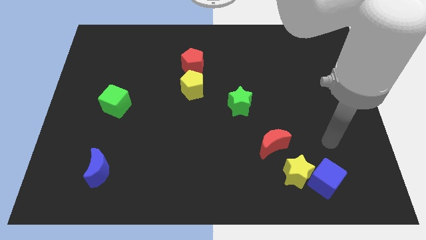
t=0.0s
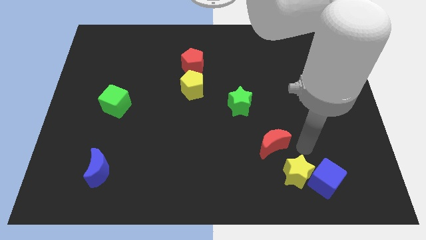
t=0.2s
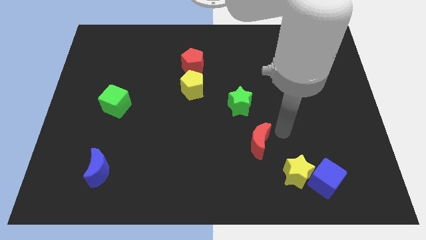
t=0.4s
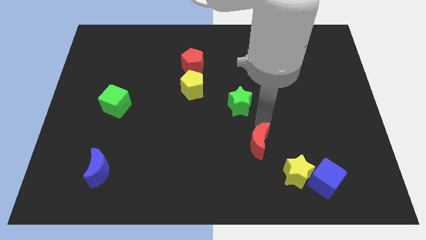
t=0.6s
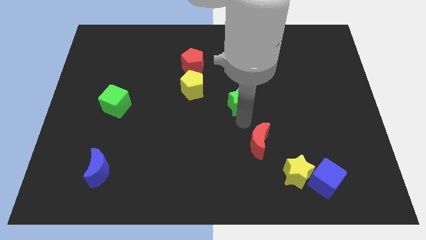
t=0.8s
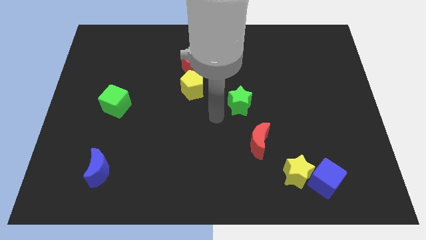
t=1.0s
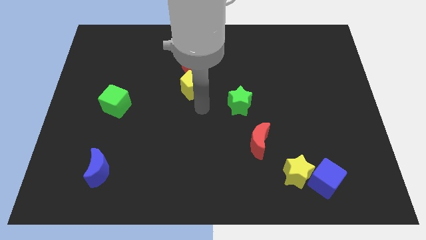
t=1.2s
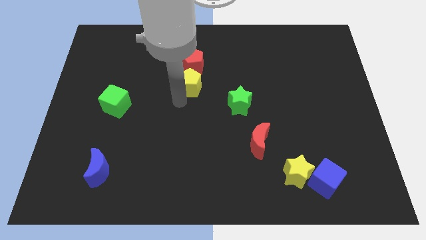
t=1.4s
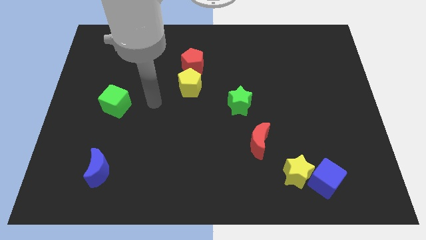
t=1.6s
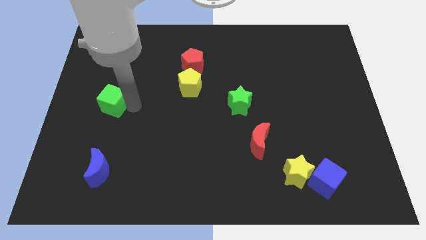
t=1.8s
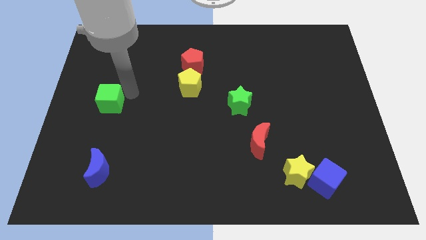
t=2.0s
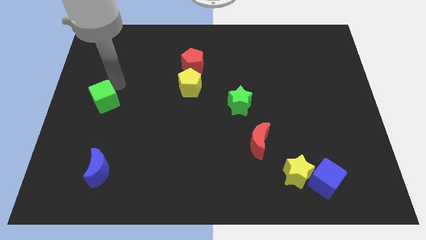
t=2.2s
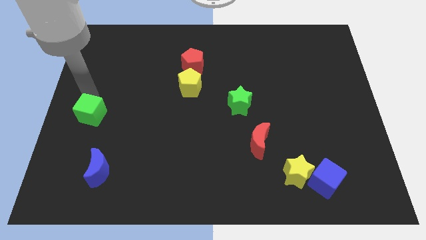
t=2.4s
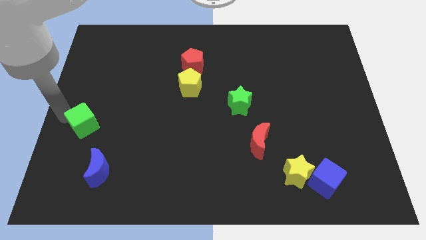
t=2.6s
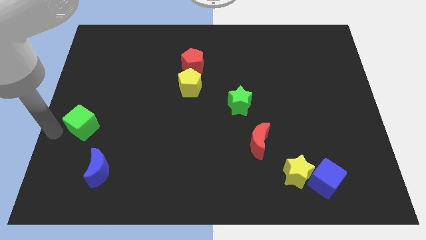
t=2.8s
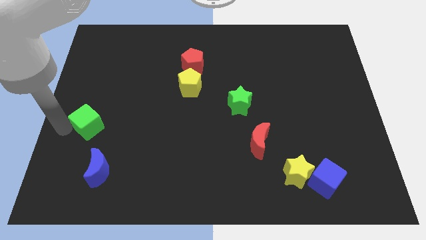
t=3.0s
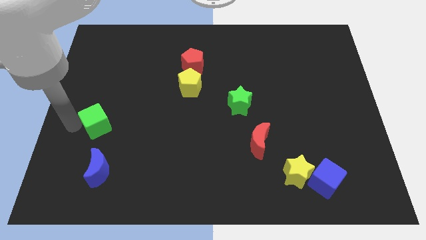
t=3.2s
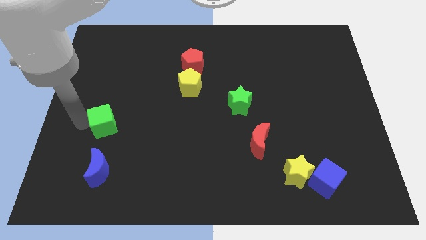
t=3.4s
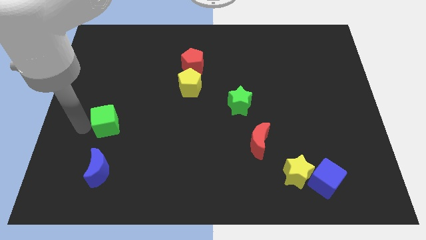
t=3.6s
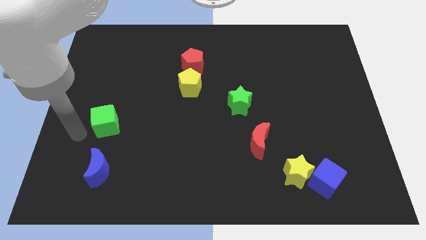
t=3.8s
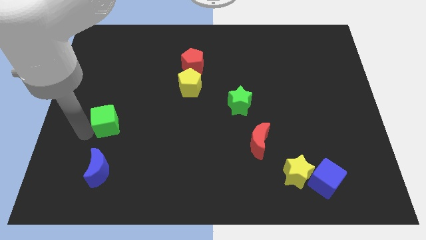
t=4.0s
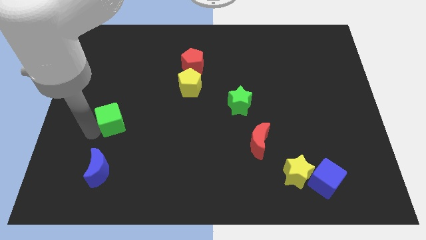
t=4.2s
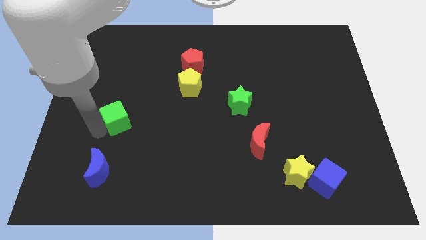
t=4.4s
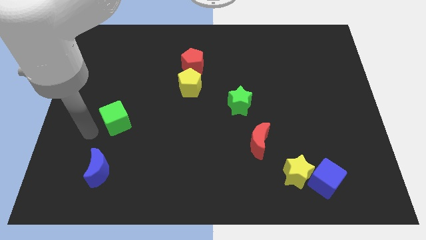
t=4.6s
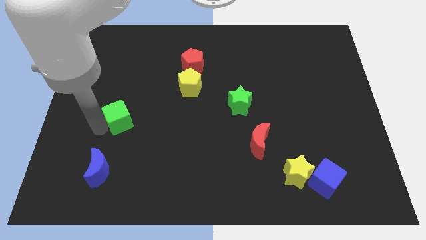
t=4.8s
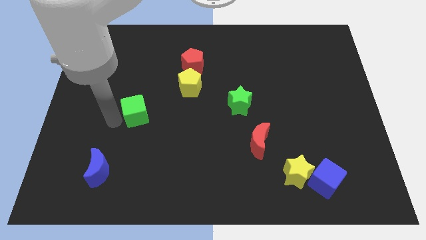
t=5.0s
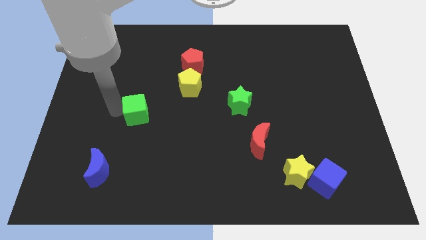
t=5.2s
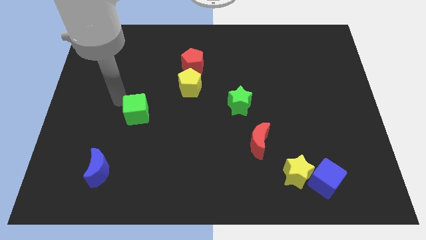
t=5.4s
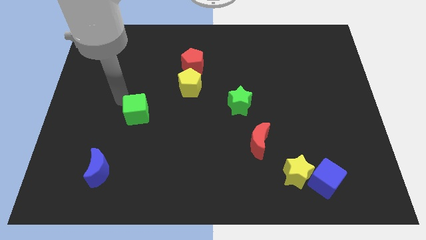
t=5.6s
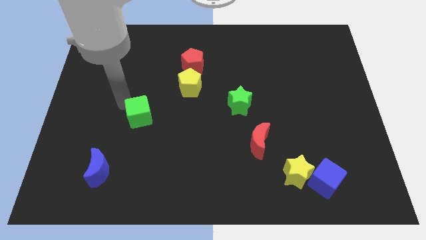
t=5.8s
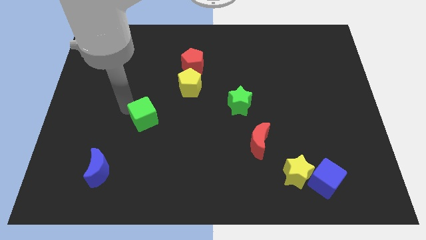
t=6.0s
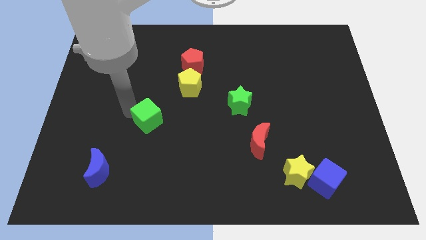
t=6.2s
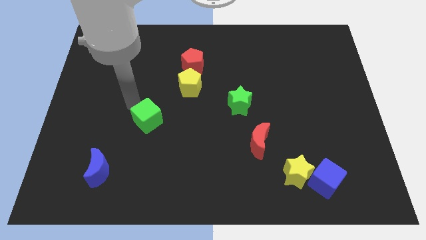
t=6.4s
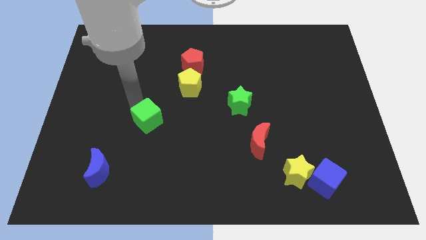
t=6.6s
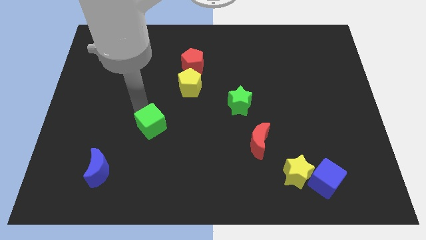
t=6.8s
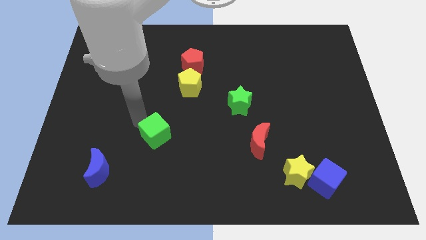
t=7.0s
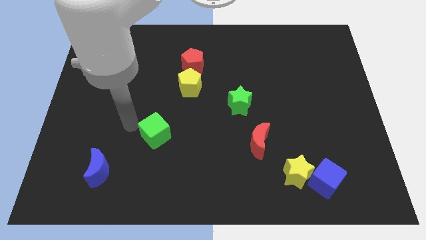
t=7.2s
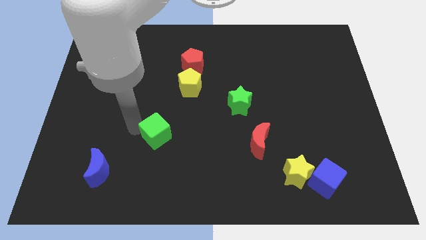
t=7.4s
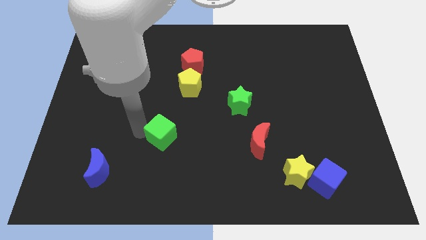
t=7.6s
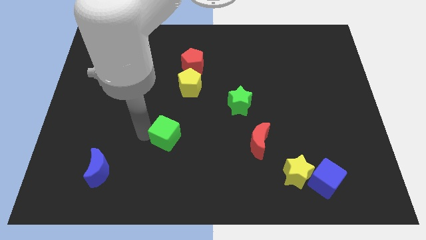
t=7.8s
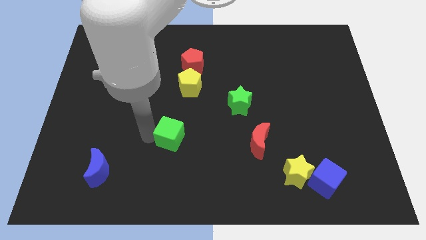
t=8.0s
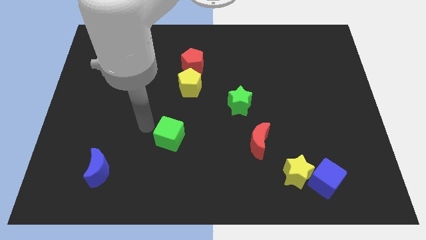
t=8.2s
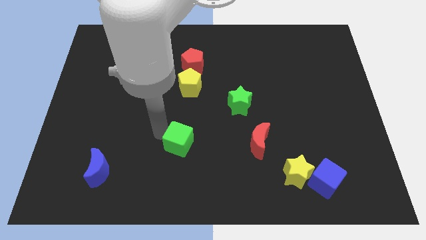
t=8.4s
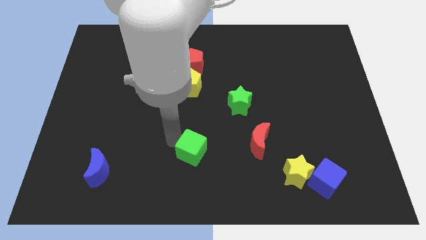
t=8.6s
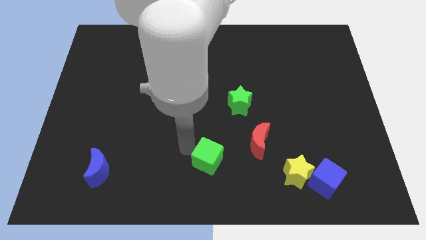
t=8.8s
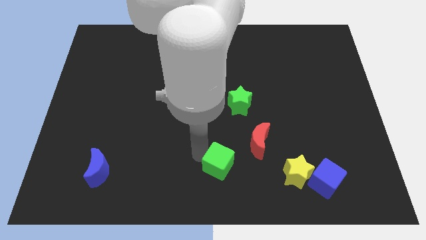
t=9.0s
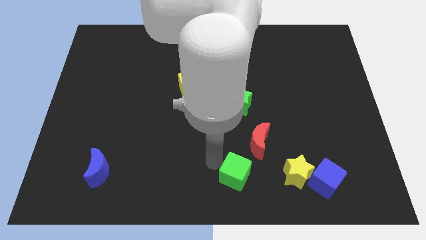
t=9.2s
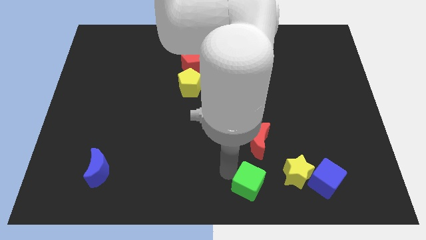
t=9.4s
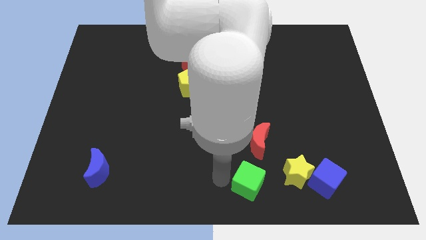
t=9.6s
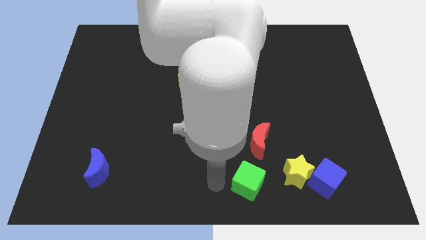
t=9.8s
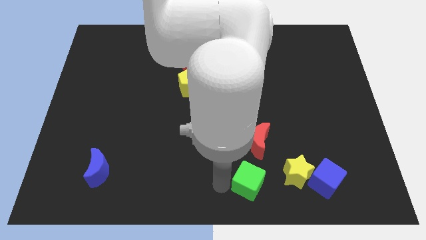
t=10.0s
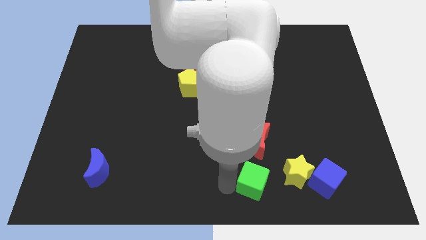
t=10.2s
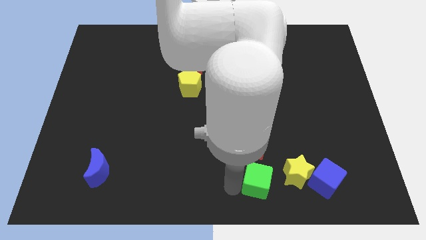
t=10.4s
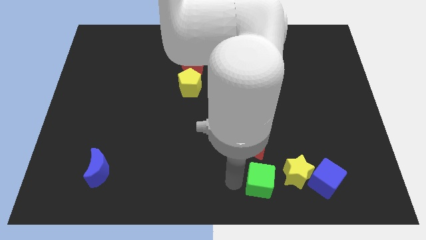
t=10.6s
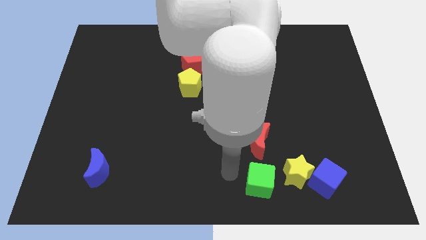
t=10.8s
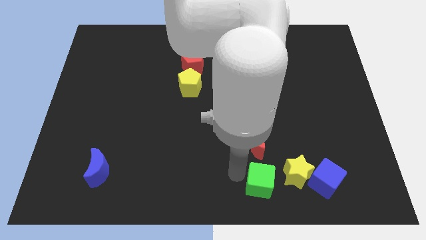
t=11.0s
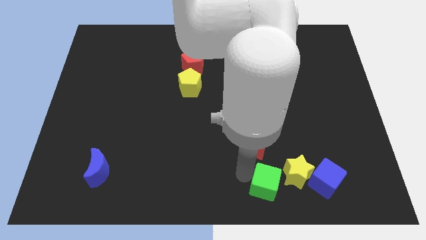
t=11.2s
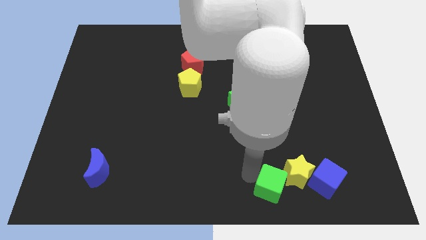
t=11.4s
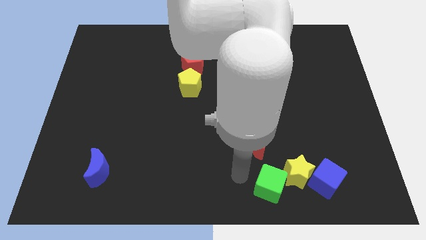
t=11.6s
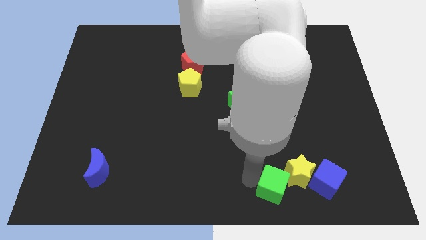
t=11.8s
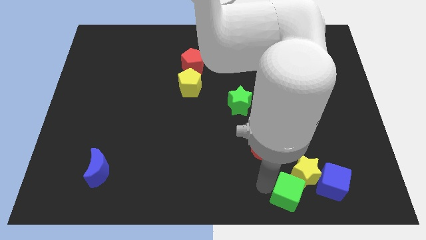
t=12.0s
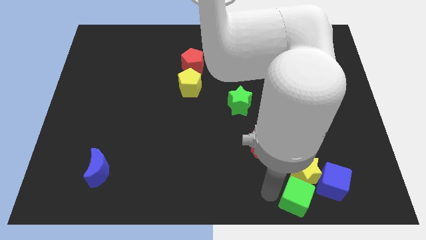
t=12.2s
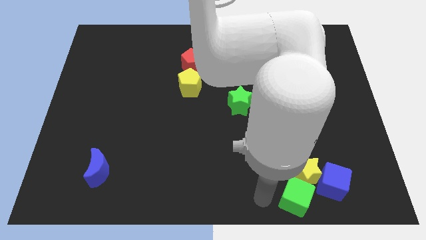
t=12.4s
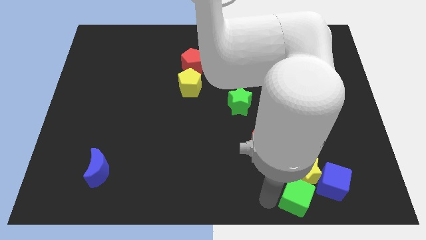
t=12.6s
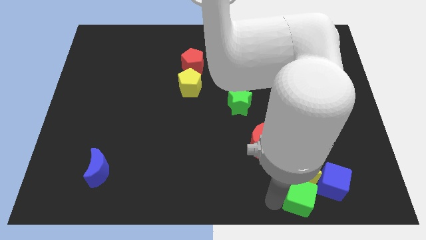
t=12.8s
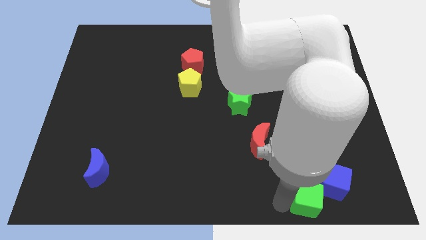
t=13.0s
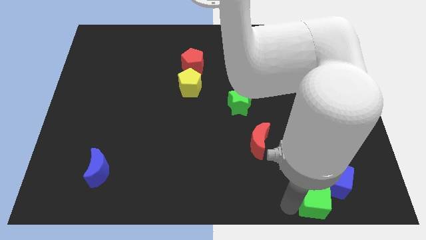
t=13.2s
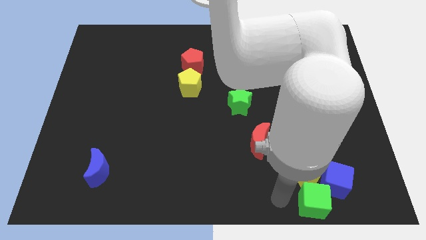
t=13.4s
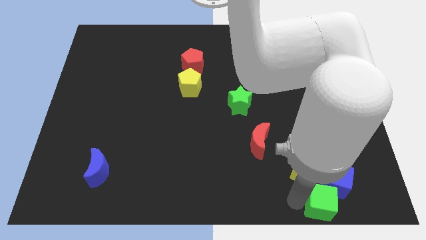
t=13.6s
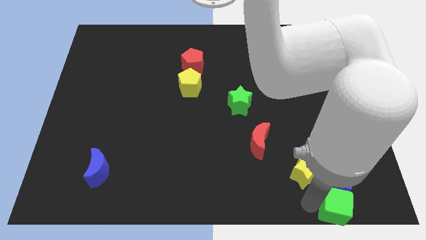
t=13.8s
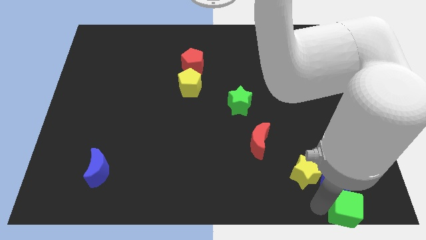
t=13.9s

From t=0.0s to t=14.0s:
move the green cube to the lower right corner

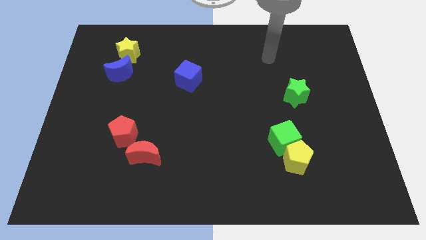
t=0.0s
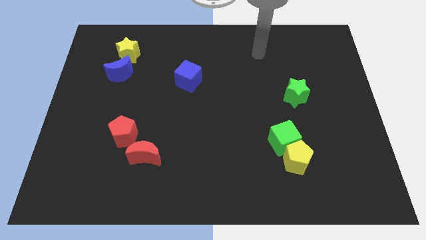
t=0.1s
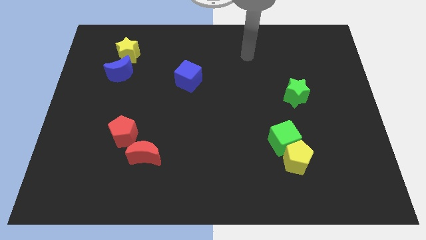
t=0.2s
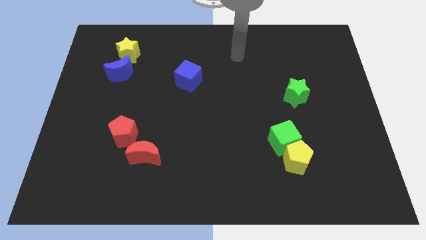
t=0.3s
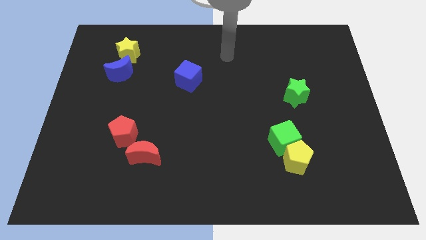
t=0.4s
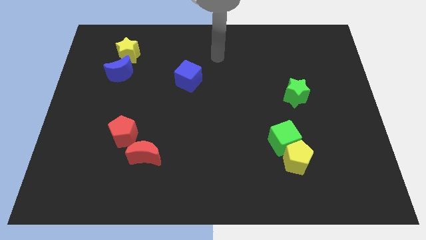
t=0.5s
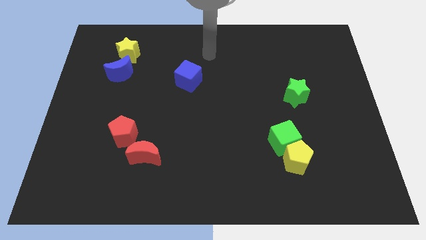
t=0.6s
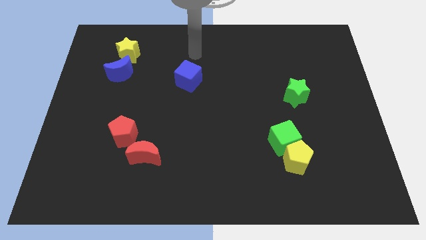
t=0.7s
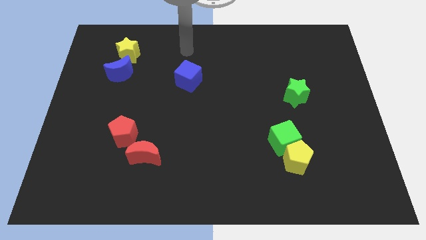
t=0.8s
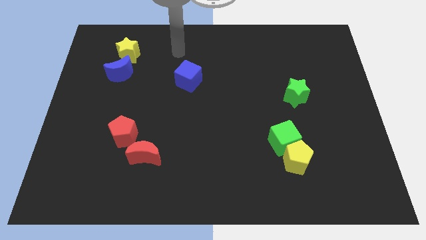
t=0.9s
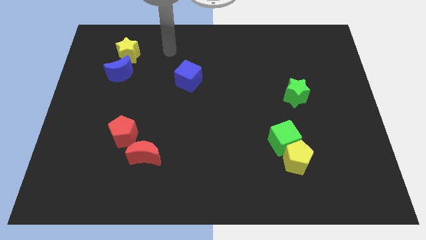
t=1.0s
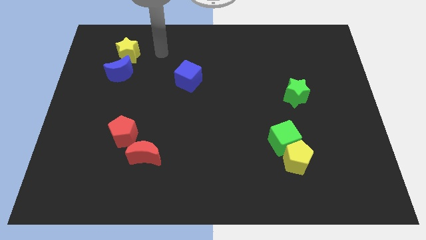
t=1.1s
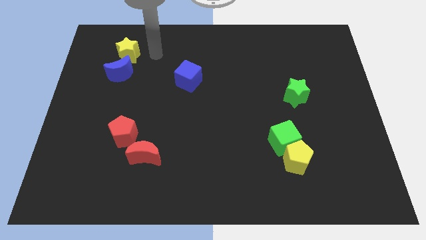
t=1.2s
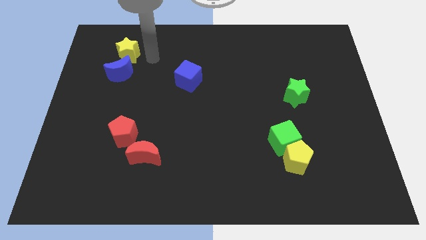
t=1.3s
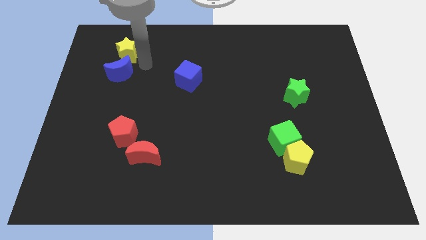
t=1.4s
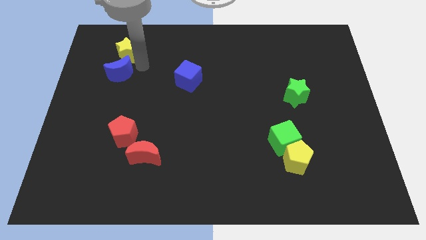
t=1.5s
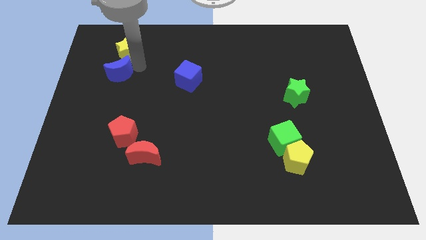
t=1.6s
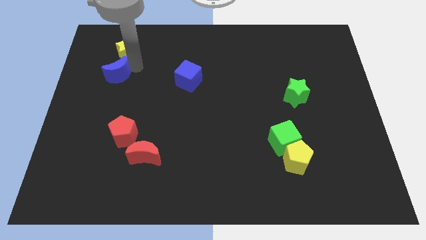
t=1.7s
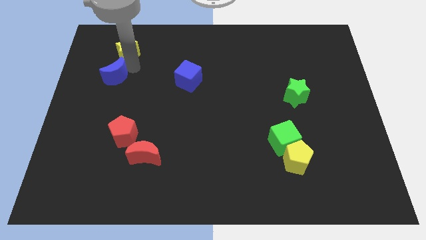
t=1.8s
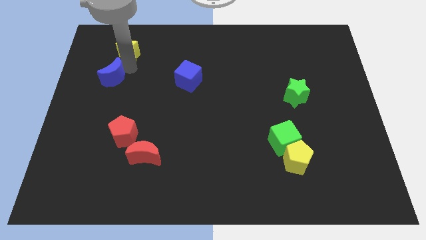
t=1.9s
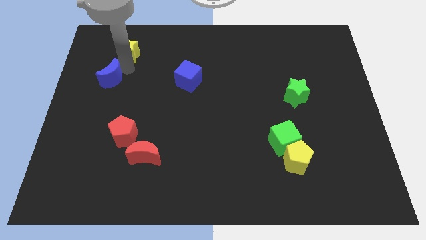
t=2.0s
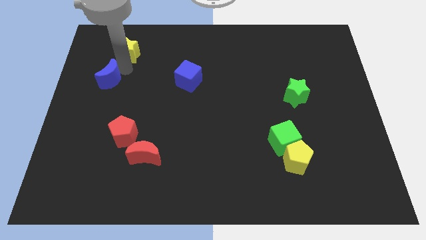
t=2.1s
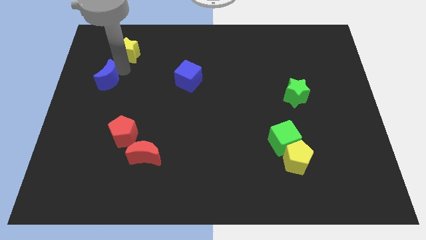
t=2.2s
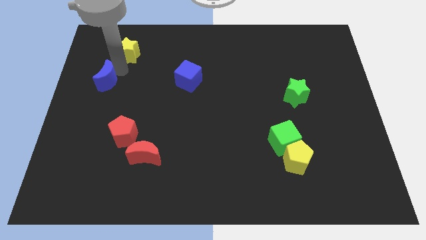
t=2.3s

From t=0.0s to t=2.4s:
slide the blue moon to the left side
